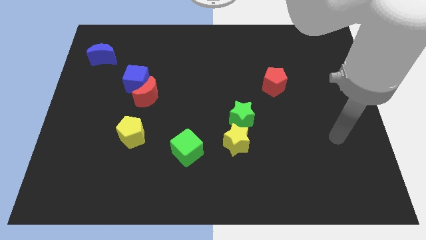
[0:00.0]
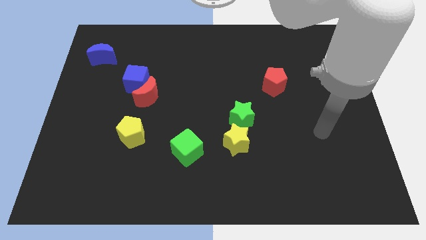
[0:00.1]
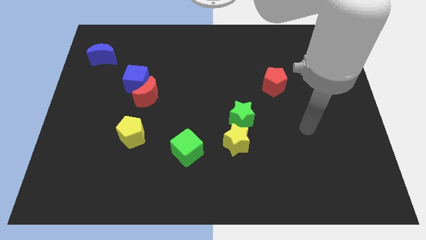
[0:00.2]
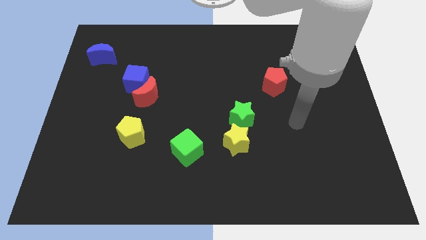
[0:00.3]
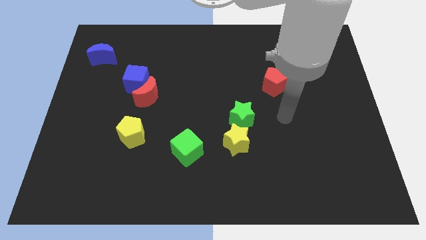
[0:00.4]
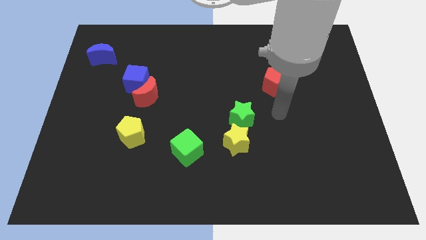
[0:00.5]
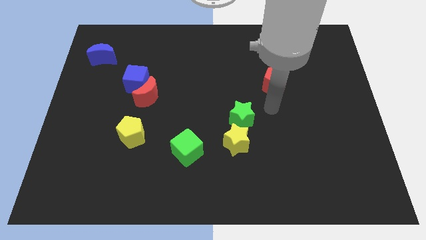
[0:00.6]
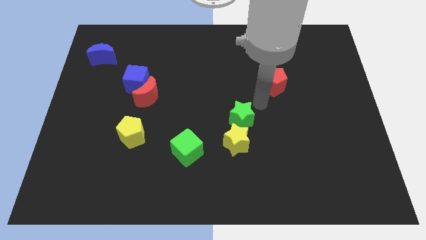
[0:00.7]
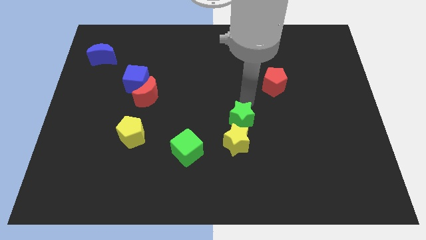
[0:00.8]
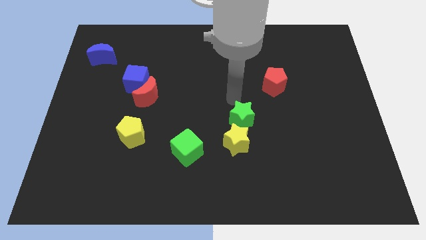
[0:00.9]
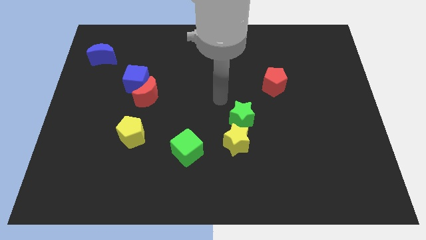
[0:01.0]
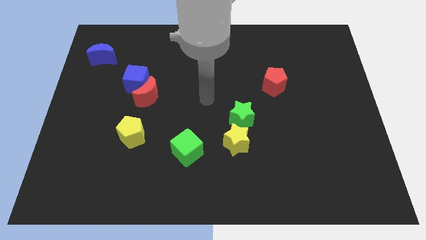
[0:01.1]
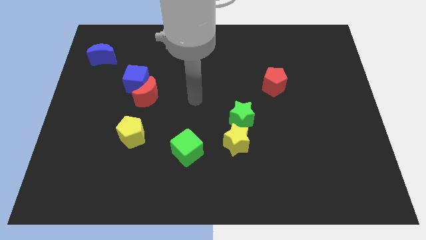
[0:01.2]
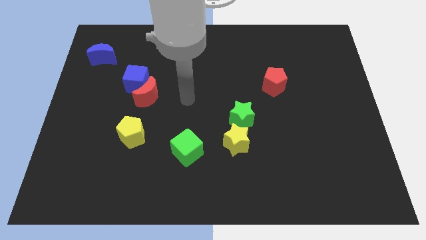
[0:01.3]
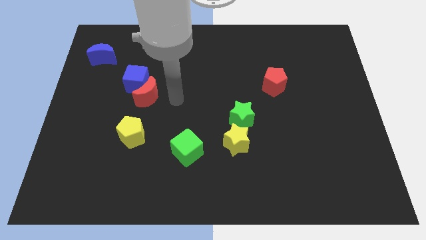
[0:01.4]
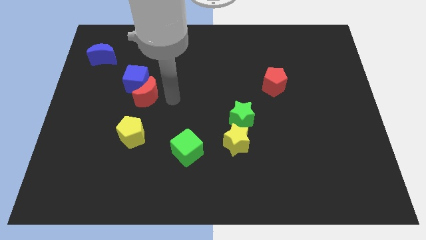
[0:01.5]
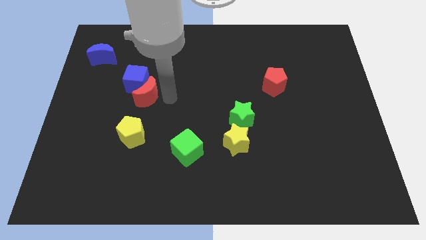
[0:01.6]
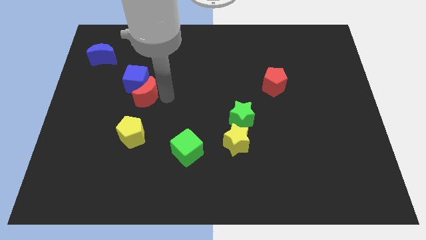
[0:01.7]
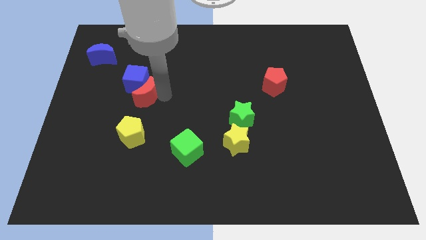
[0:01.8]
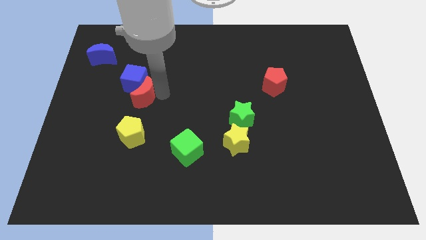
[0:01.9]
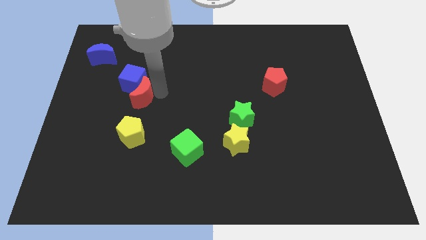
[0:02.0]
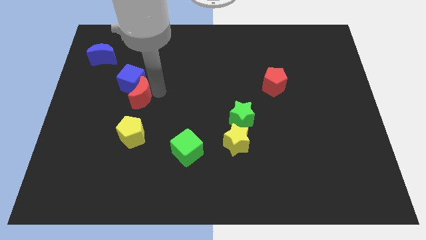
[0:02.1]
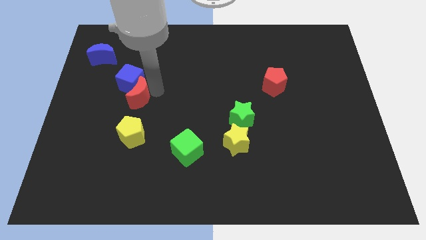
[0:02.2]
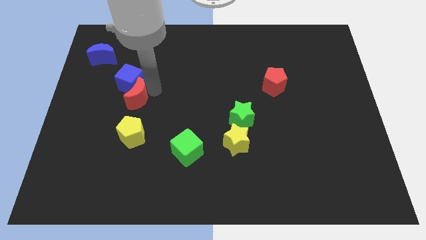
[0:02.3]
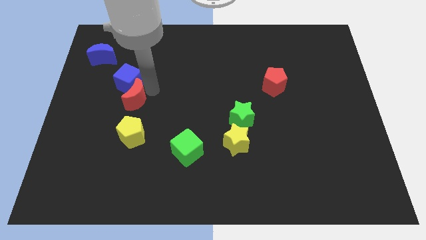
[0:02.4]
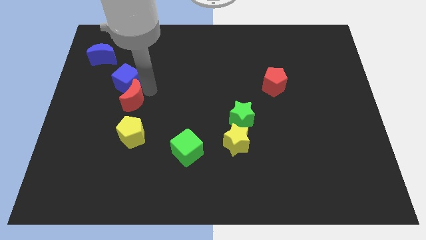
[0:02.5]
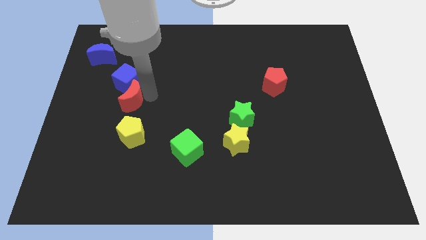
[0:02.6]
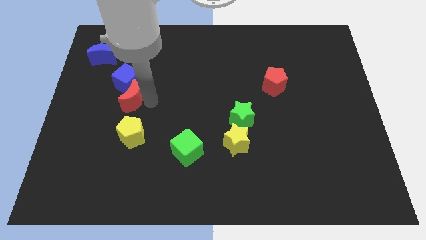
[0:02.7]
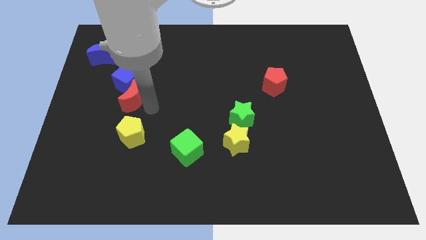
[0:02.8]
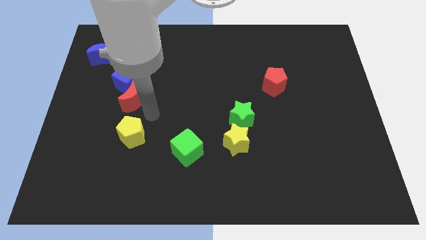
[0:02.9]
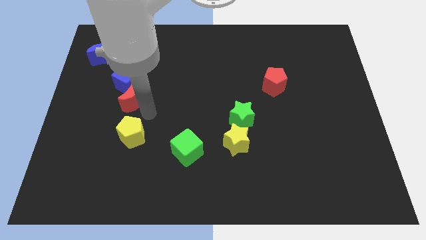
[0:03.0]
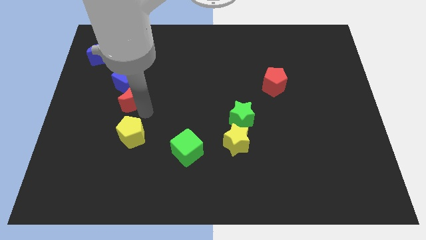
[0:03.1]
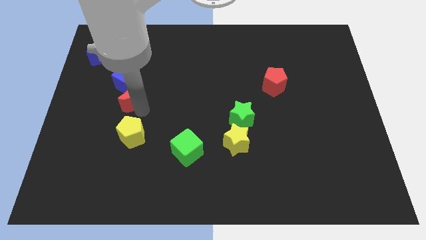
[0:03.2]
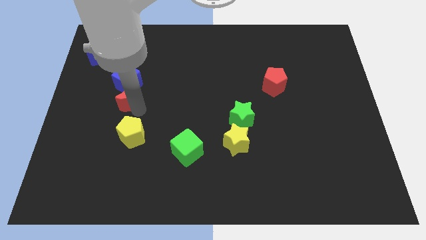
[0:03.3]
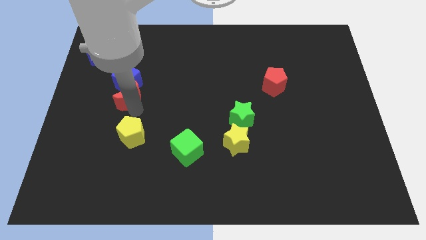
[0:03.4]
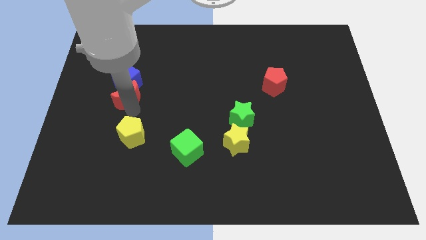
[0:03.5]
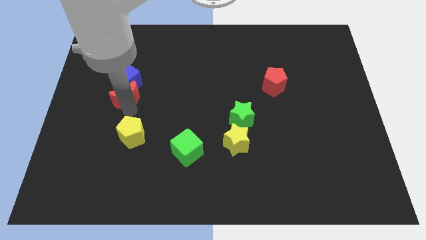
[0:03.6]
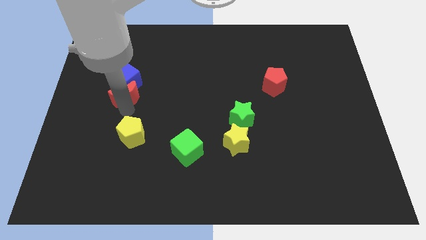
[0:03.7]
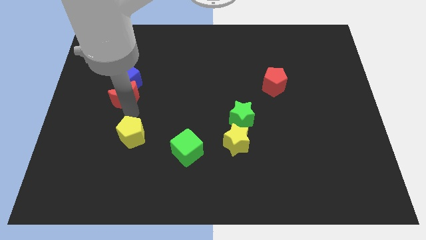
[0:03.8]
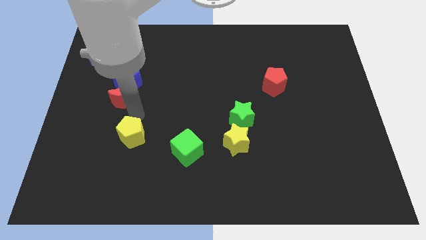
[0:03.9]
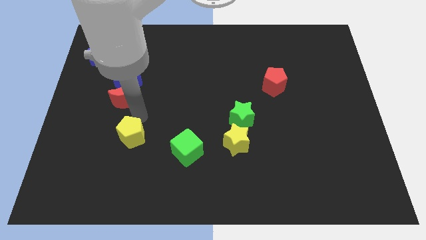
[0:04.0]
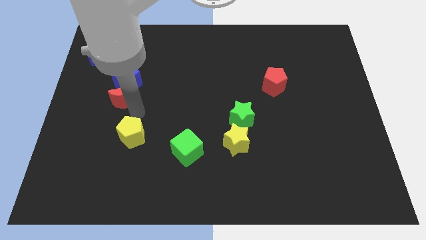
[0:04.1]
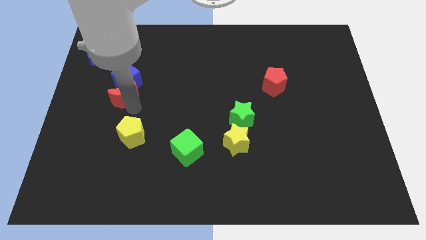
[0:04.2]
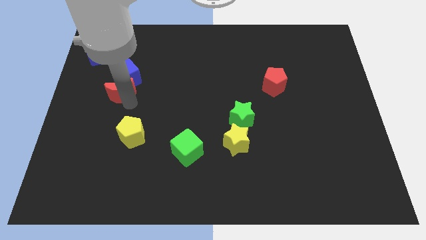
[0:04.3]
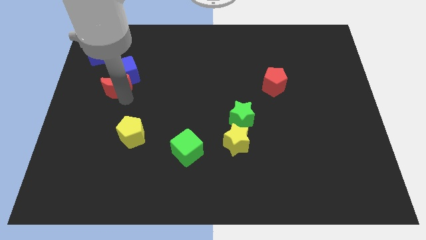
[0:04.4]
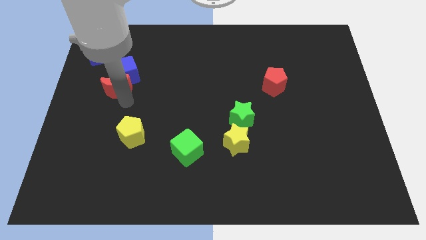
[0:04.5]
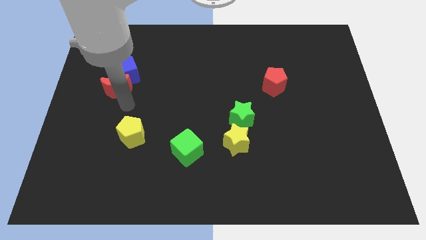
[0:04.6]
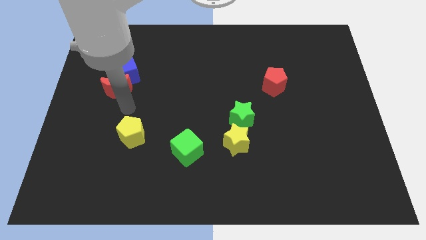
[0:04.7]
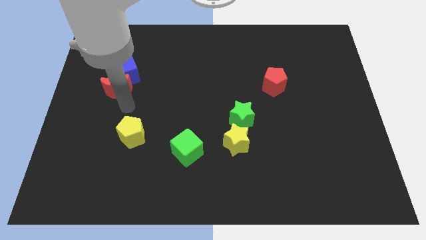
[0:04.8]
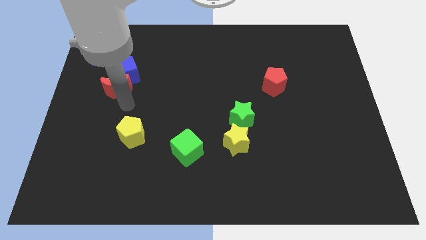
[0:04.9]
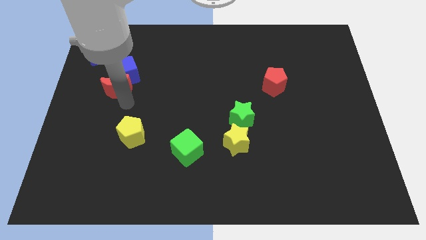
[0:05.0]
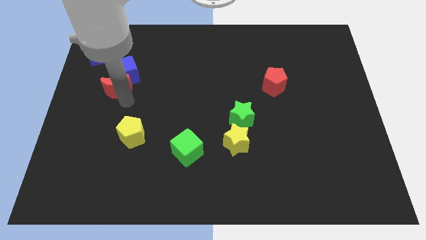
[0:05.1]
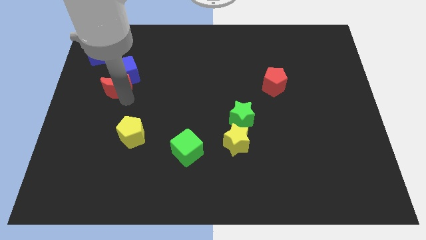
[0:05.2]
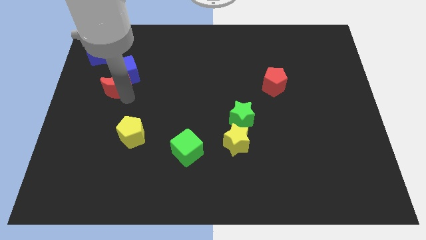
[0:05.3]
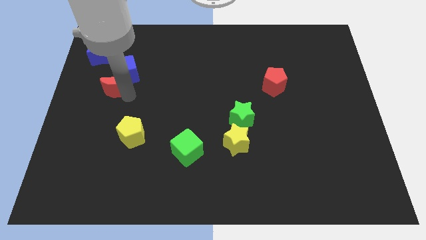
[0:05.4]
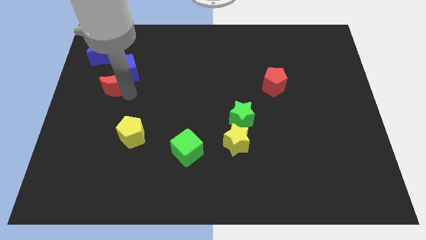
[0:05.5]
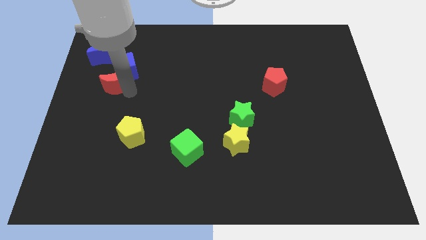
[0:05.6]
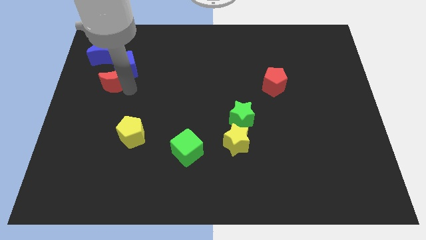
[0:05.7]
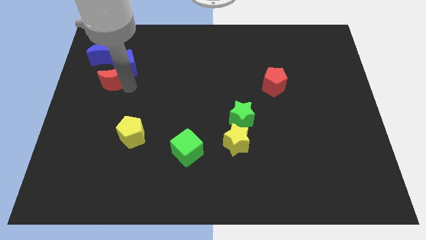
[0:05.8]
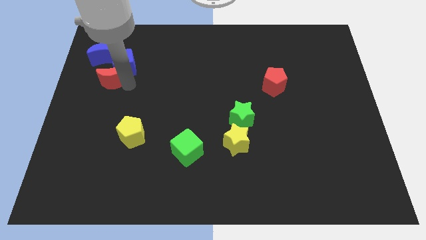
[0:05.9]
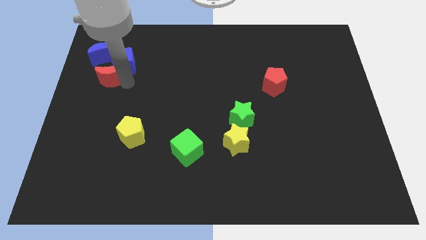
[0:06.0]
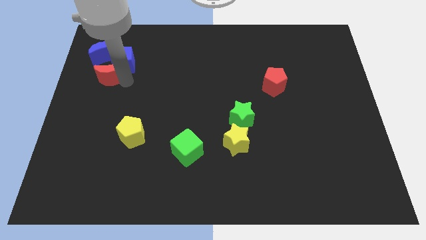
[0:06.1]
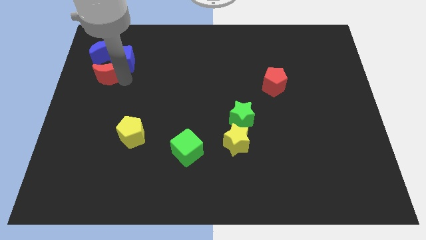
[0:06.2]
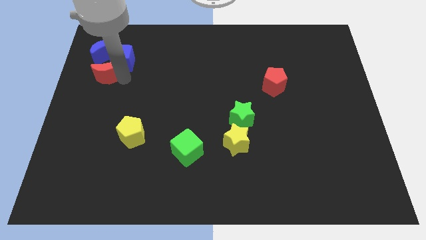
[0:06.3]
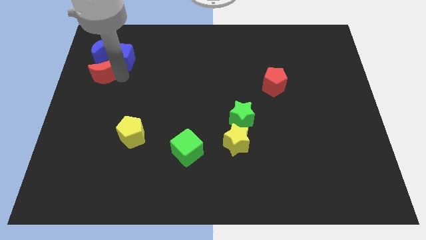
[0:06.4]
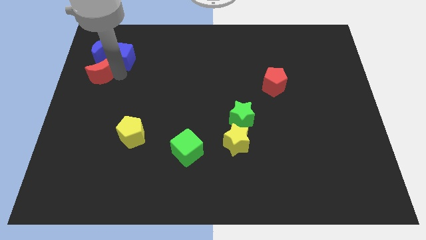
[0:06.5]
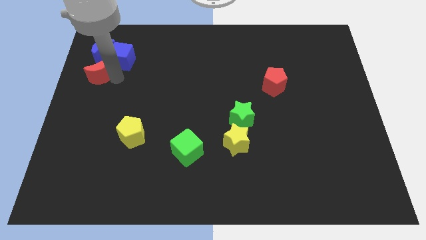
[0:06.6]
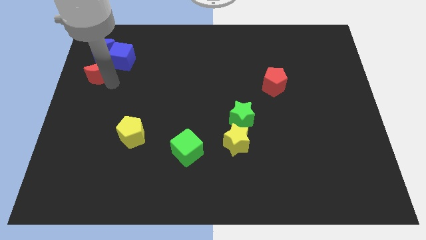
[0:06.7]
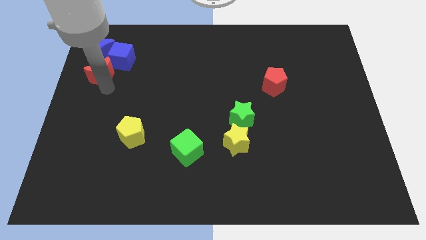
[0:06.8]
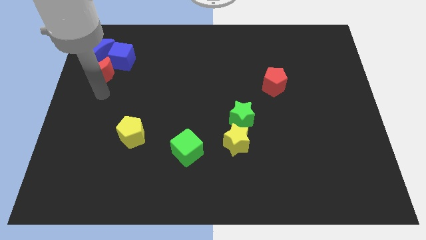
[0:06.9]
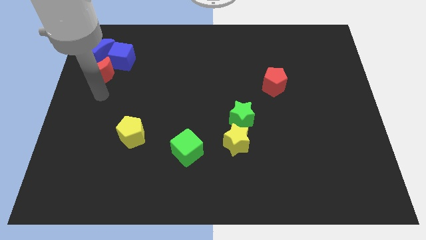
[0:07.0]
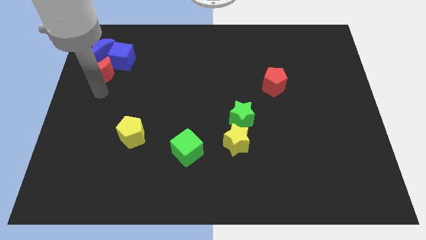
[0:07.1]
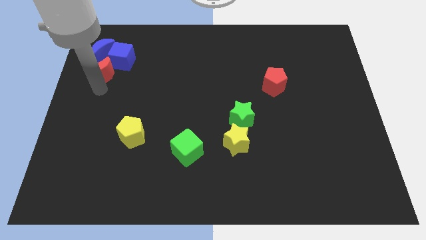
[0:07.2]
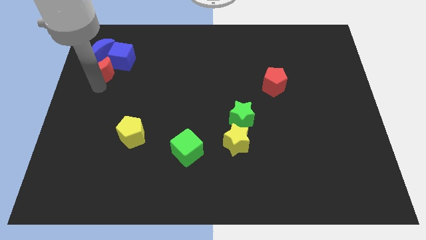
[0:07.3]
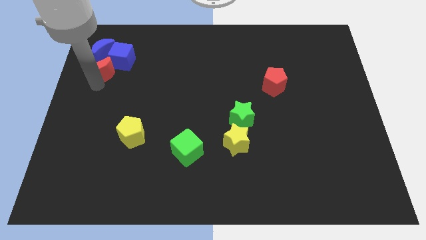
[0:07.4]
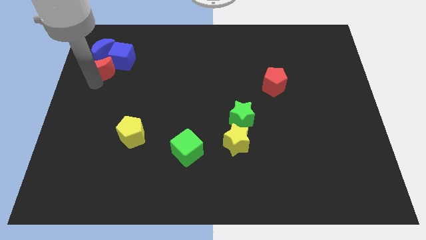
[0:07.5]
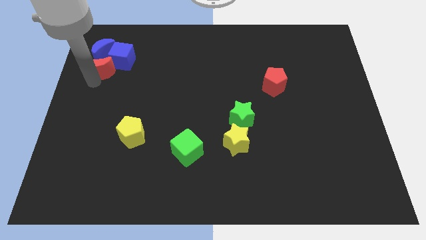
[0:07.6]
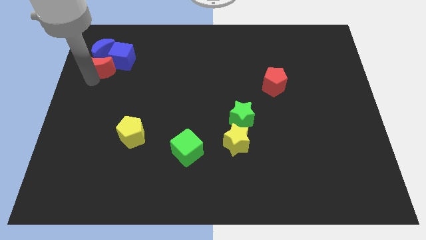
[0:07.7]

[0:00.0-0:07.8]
slide the red moon next to the blue moon
